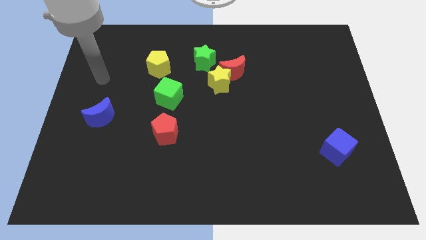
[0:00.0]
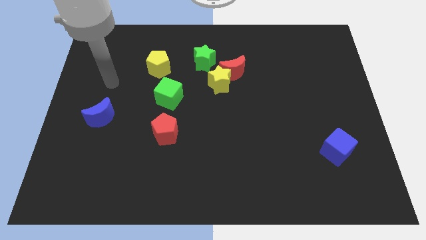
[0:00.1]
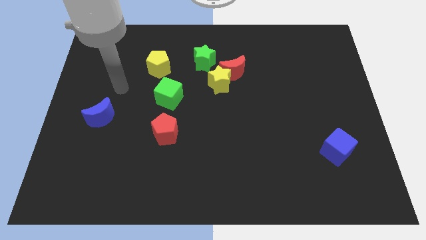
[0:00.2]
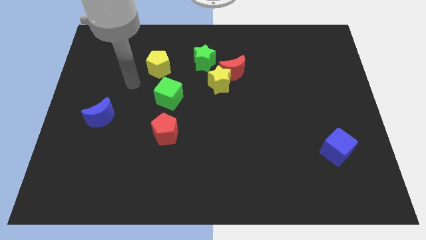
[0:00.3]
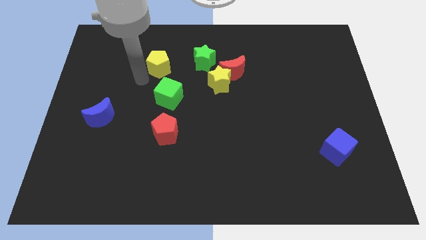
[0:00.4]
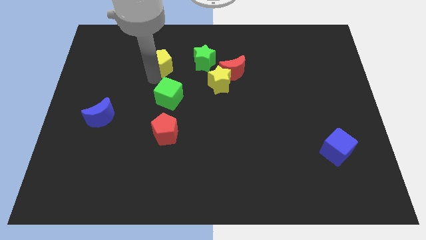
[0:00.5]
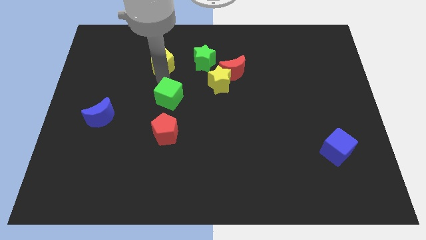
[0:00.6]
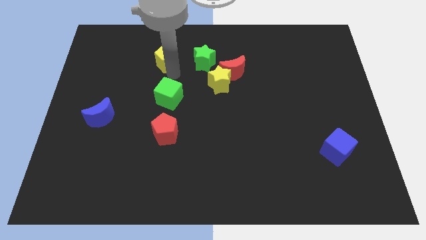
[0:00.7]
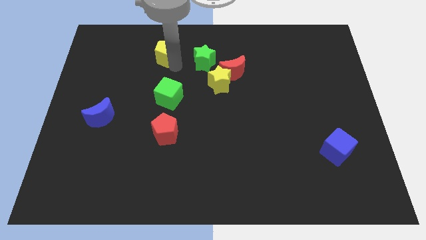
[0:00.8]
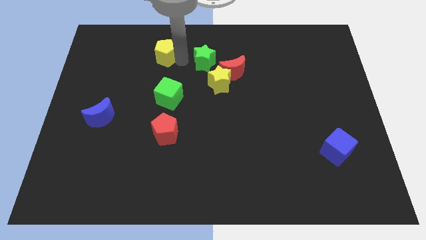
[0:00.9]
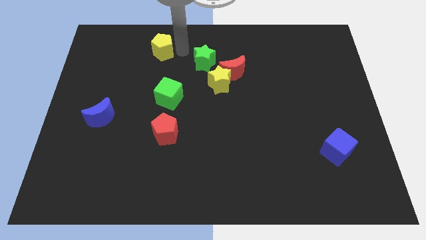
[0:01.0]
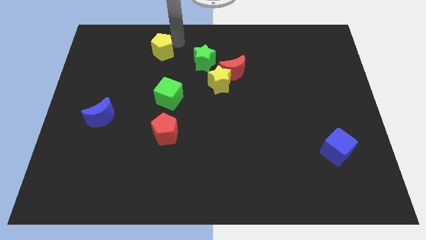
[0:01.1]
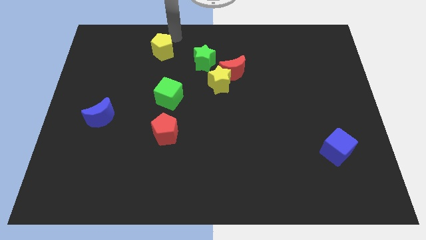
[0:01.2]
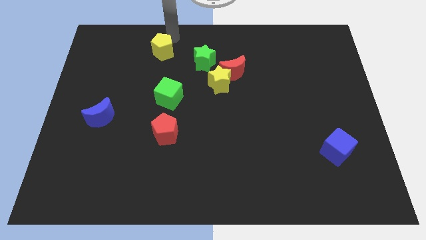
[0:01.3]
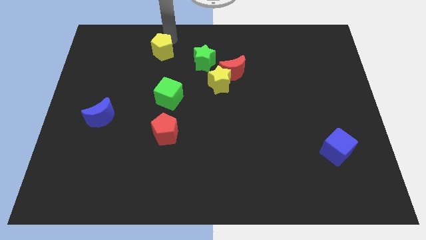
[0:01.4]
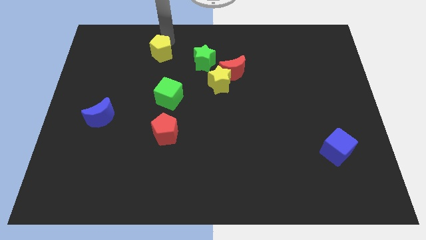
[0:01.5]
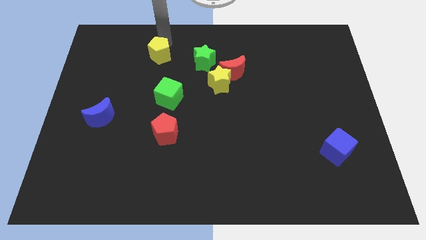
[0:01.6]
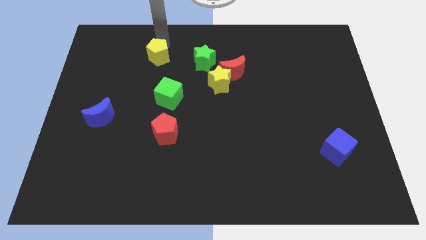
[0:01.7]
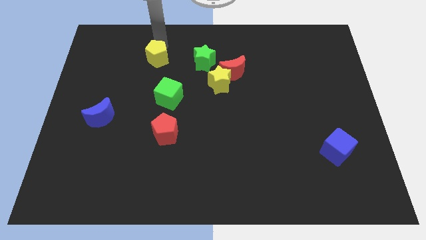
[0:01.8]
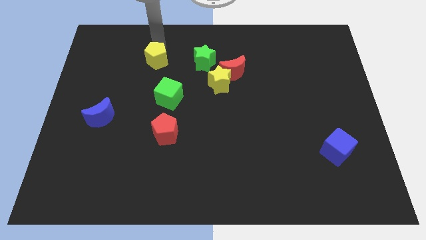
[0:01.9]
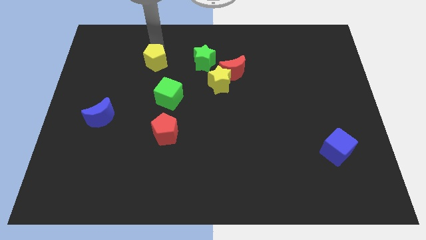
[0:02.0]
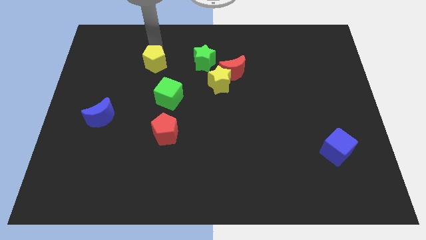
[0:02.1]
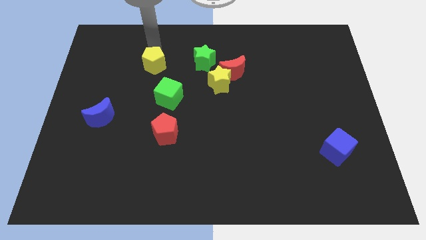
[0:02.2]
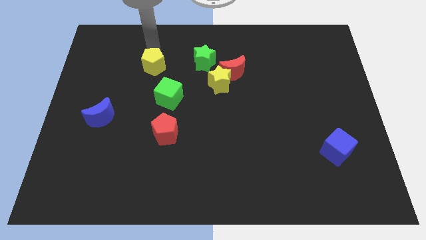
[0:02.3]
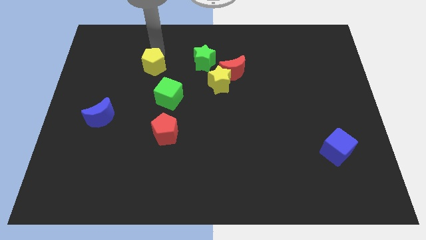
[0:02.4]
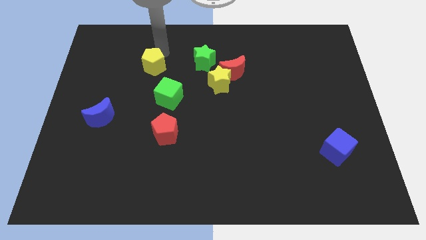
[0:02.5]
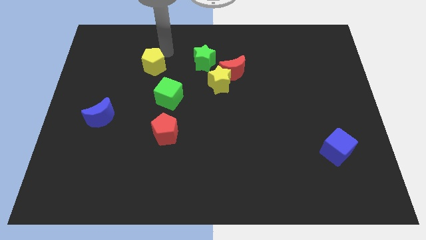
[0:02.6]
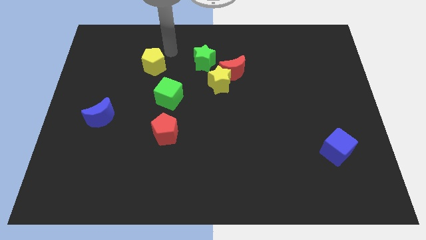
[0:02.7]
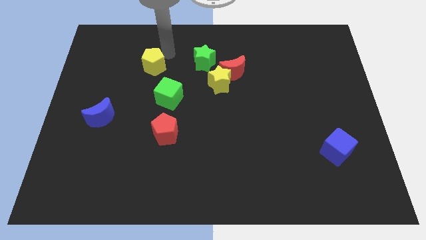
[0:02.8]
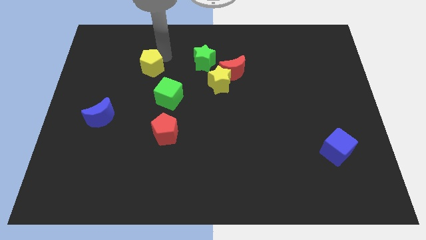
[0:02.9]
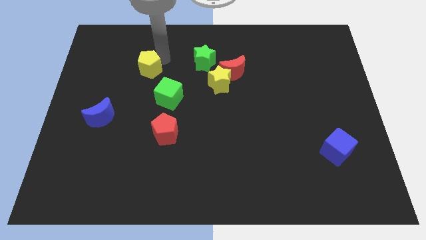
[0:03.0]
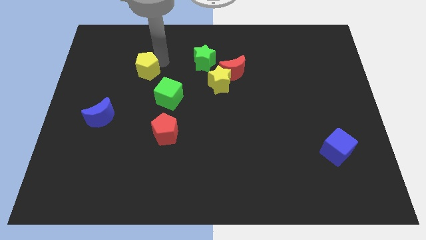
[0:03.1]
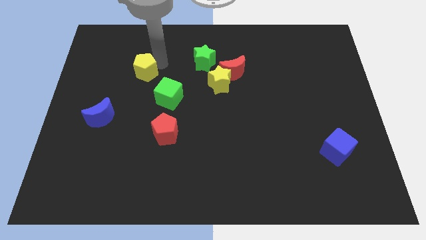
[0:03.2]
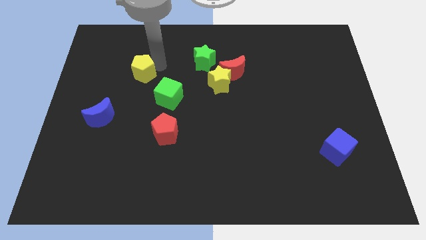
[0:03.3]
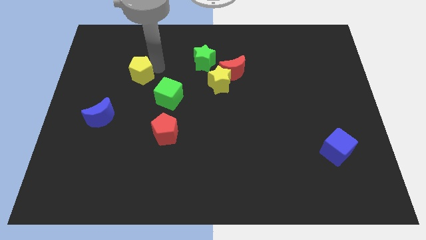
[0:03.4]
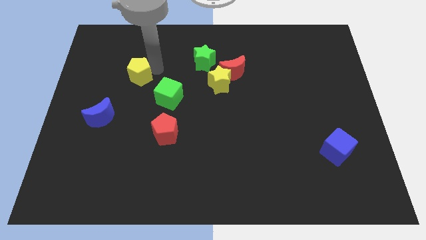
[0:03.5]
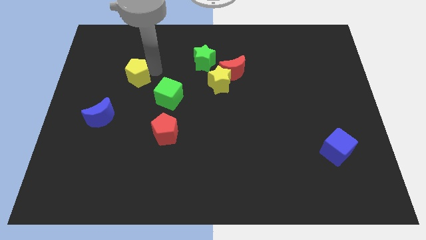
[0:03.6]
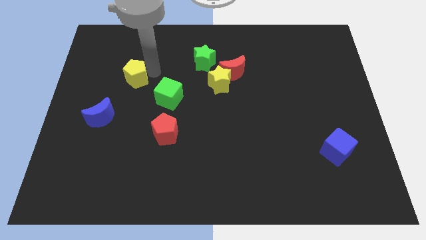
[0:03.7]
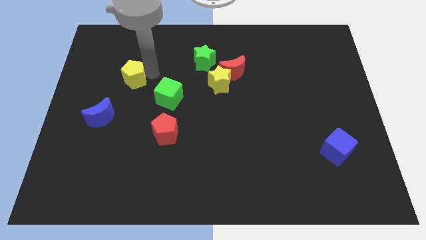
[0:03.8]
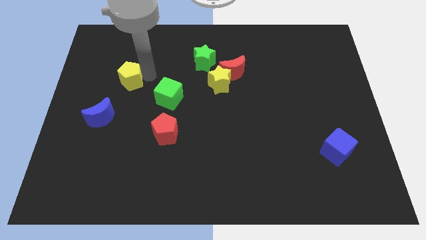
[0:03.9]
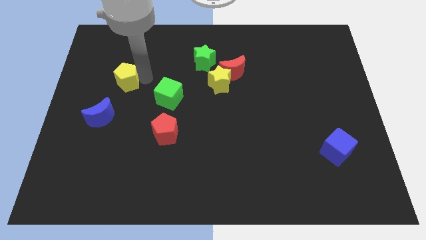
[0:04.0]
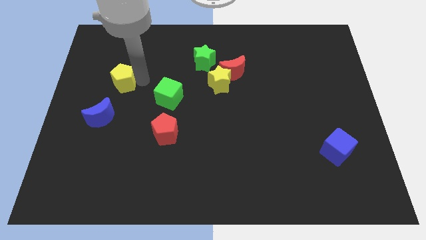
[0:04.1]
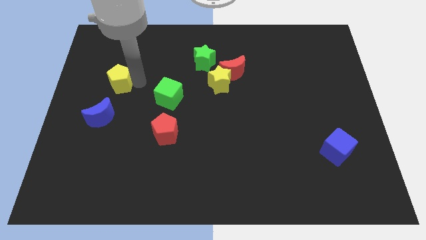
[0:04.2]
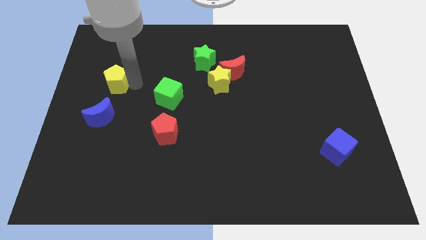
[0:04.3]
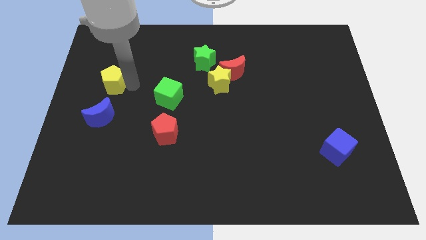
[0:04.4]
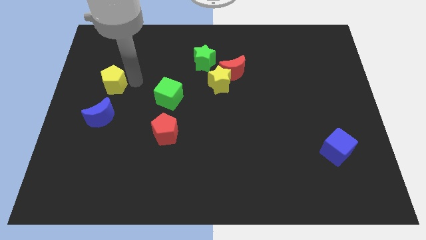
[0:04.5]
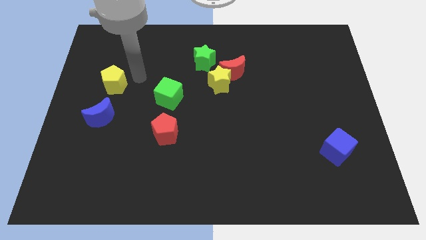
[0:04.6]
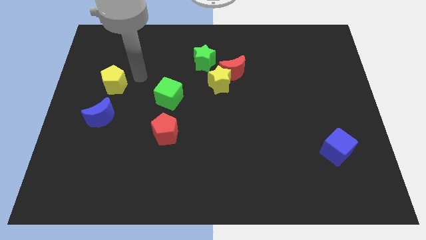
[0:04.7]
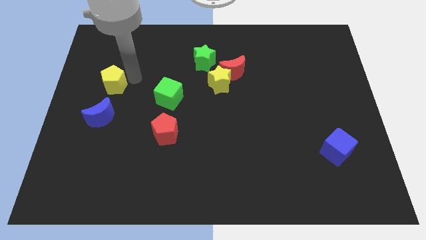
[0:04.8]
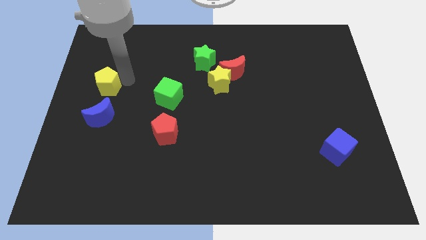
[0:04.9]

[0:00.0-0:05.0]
push the yellow pentagon to the left side of the board

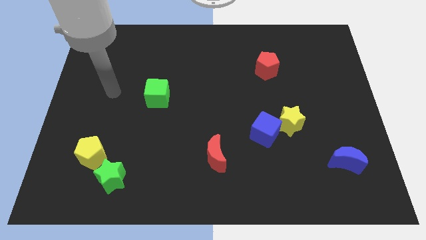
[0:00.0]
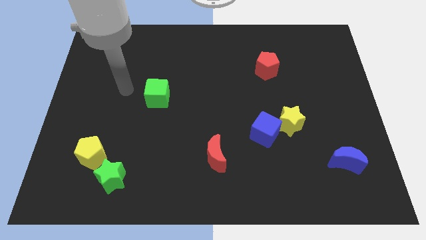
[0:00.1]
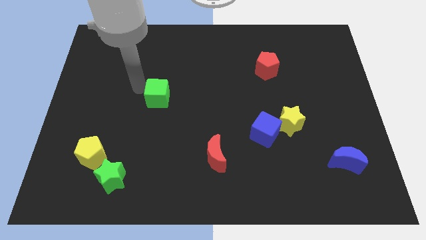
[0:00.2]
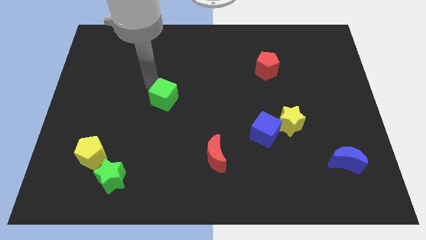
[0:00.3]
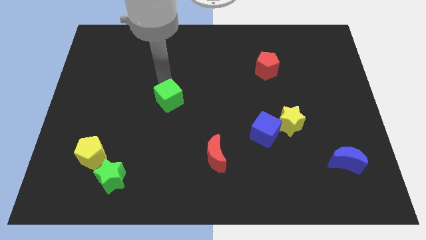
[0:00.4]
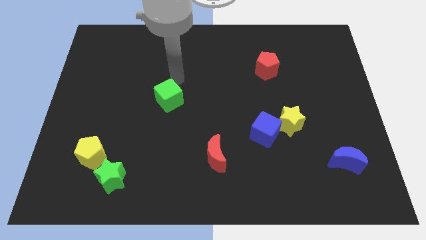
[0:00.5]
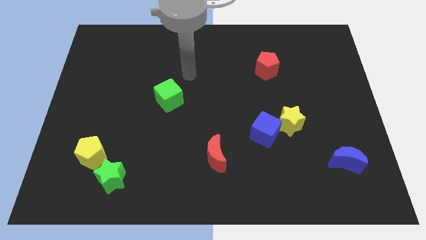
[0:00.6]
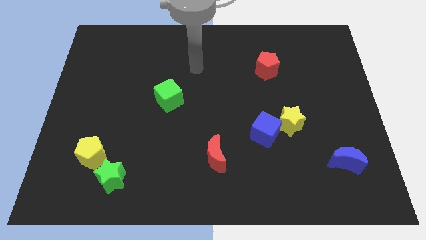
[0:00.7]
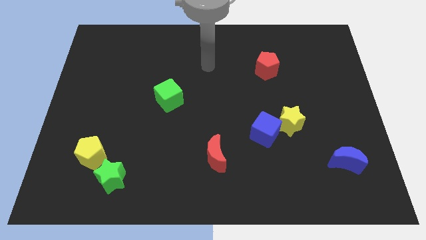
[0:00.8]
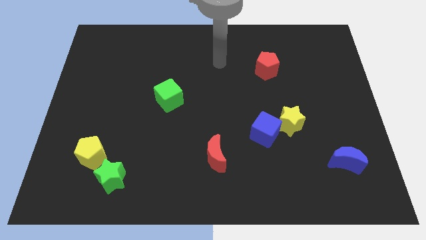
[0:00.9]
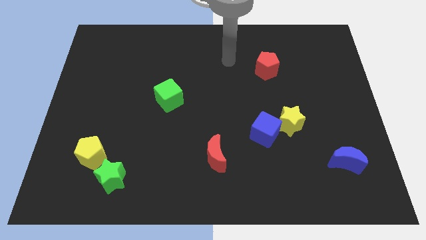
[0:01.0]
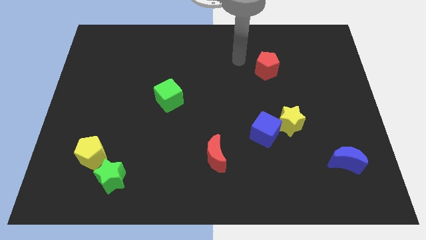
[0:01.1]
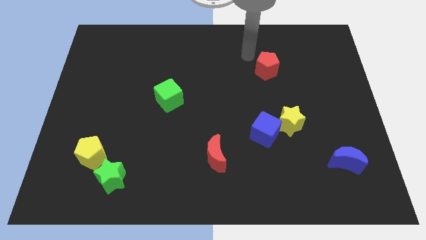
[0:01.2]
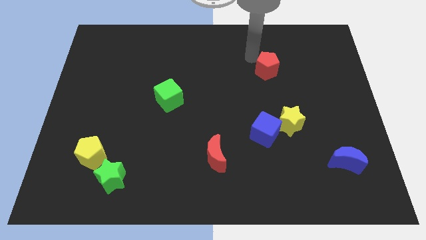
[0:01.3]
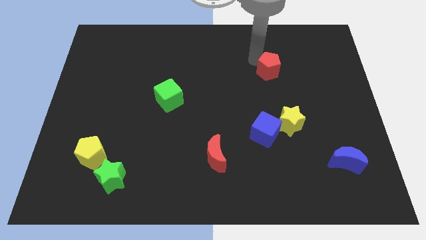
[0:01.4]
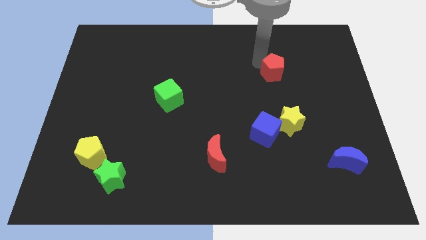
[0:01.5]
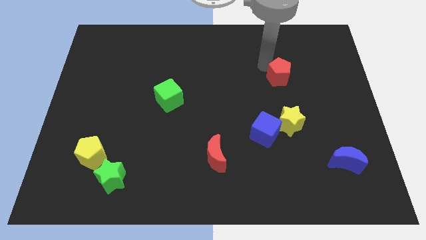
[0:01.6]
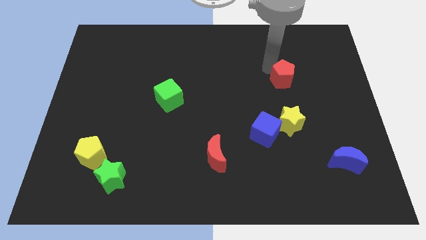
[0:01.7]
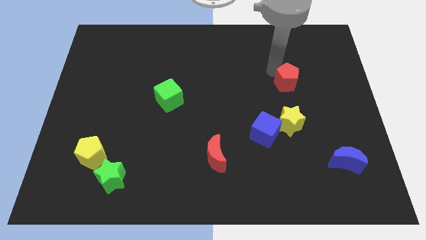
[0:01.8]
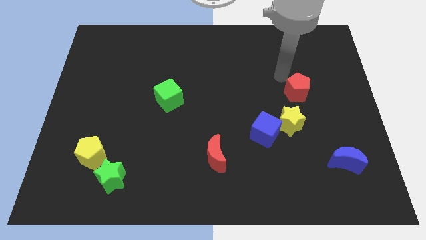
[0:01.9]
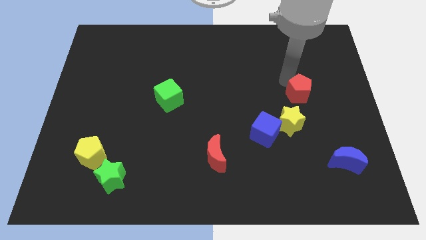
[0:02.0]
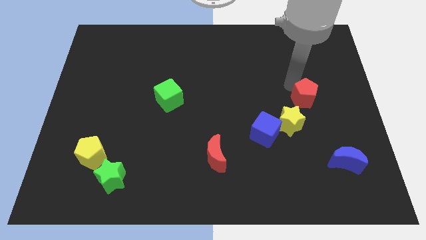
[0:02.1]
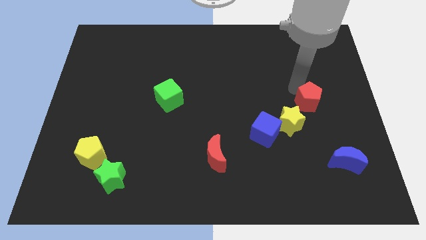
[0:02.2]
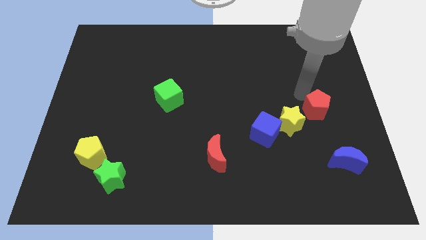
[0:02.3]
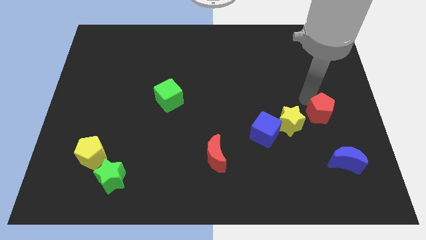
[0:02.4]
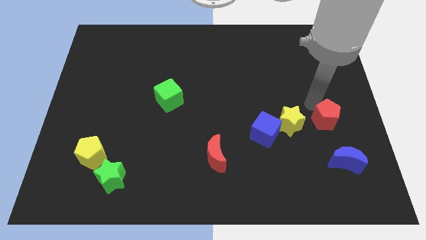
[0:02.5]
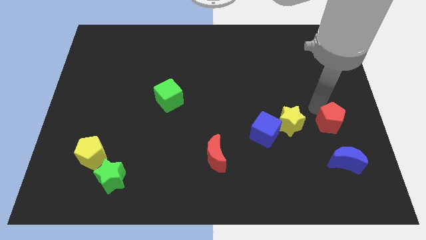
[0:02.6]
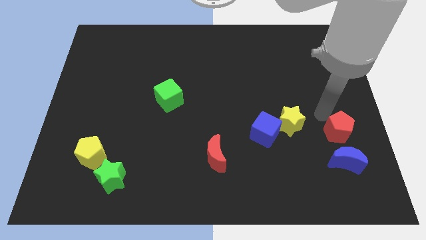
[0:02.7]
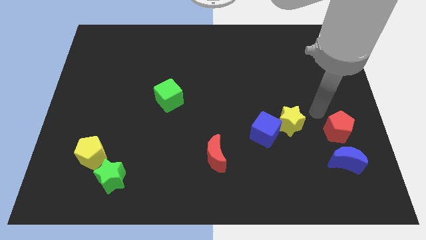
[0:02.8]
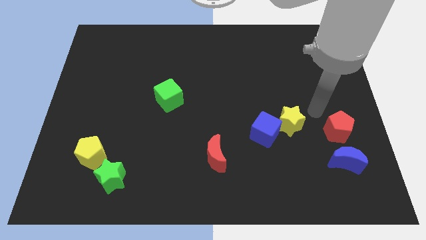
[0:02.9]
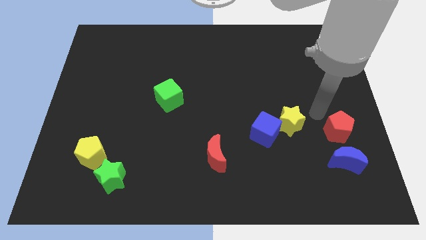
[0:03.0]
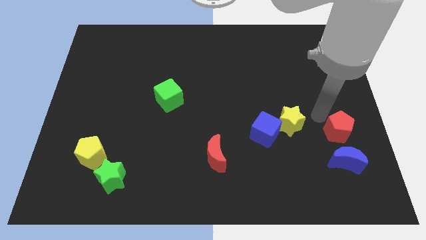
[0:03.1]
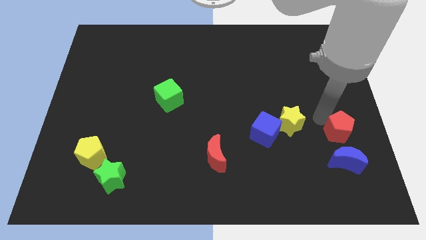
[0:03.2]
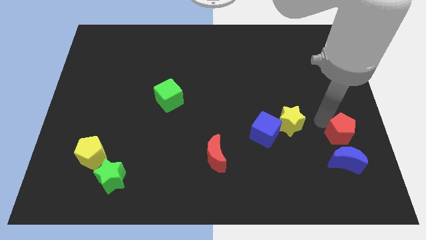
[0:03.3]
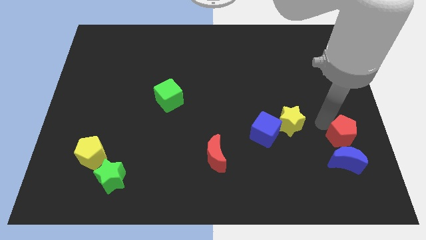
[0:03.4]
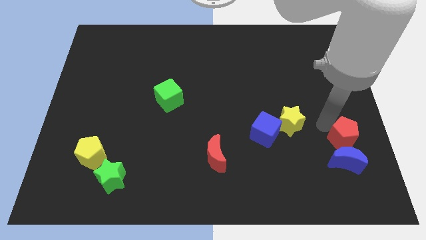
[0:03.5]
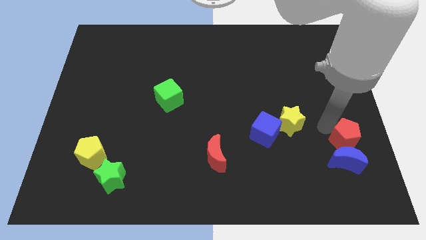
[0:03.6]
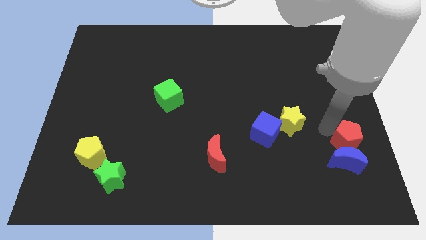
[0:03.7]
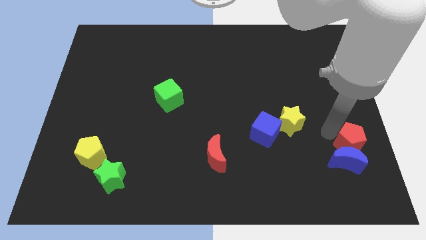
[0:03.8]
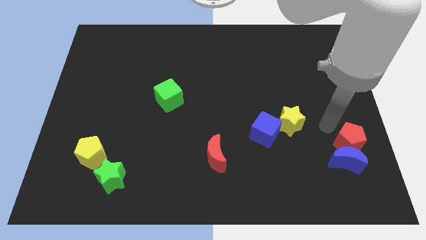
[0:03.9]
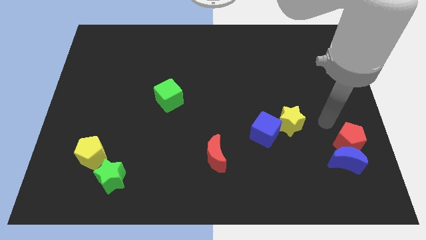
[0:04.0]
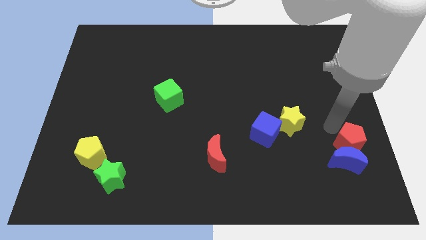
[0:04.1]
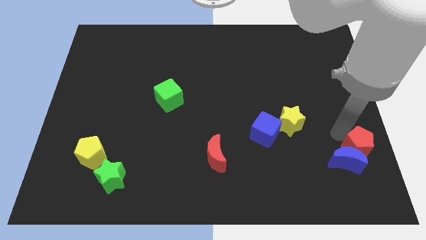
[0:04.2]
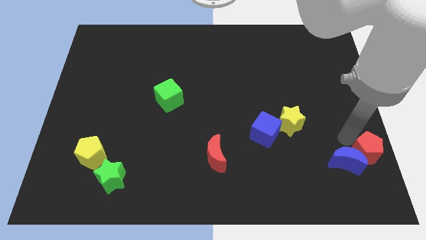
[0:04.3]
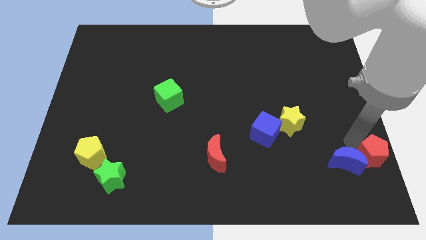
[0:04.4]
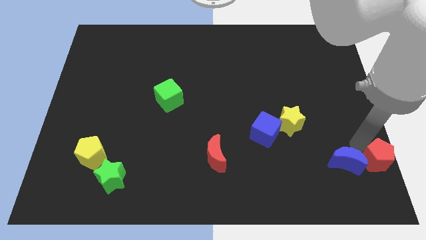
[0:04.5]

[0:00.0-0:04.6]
push the red pentagon to the bottom right
